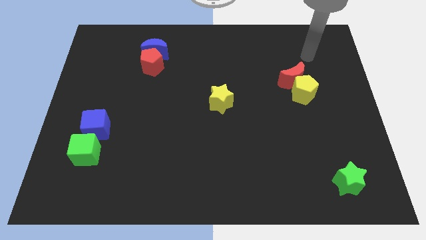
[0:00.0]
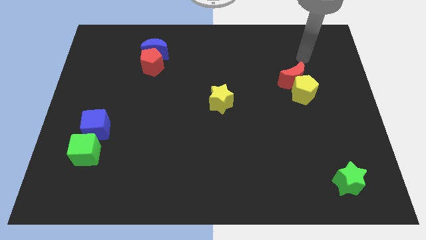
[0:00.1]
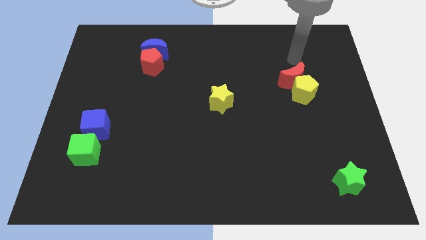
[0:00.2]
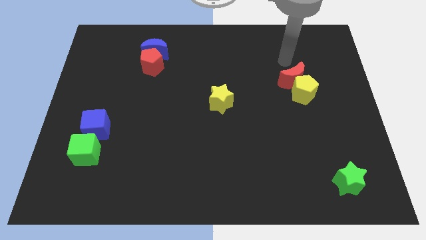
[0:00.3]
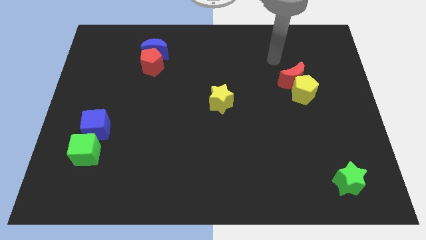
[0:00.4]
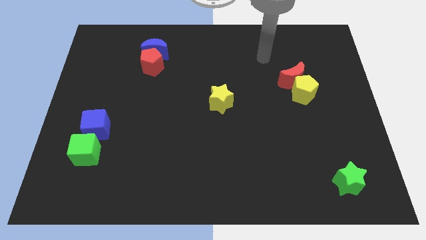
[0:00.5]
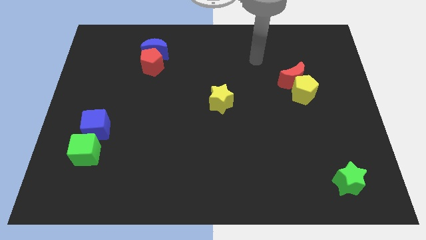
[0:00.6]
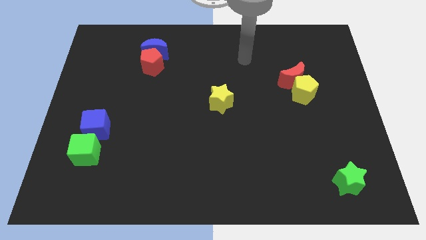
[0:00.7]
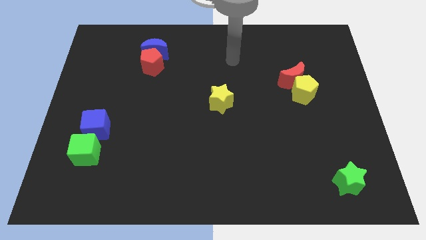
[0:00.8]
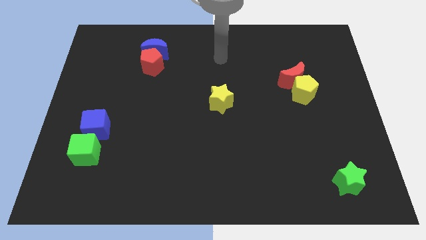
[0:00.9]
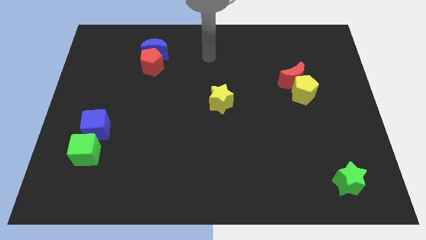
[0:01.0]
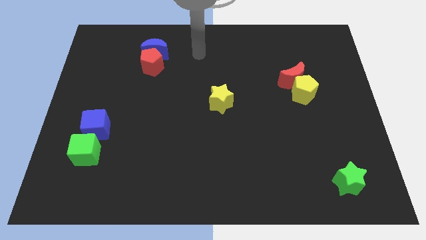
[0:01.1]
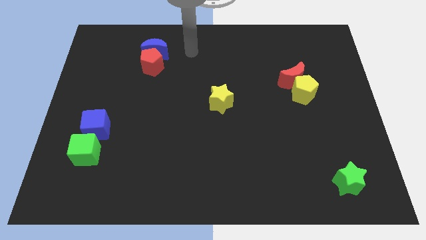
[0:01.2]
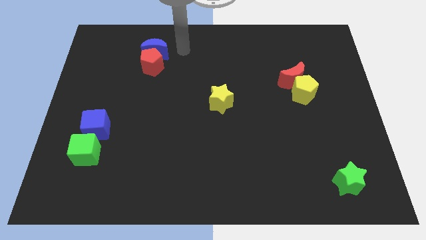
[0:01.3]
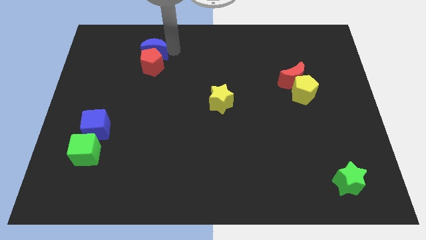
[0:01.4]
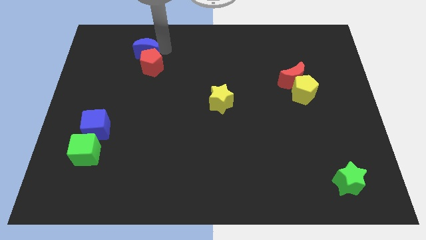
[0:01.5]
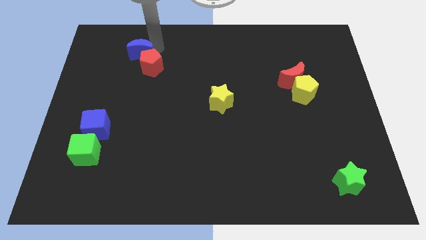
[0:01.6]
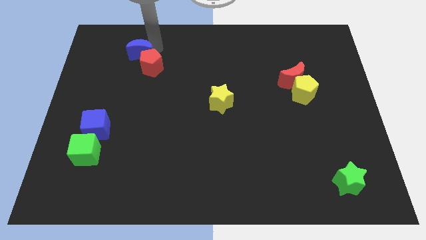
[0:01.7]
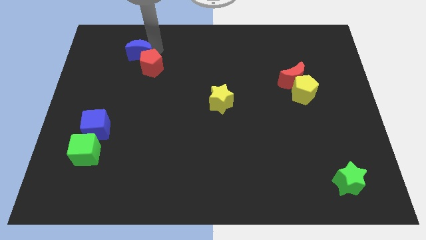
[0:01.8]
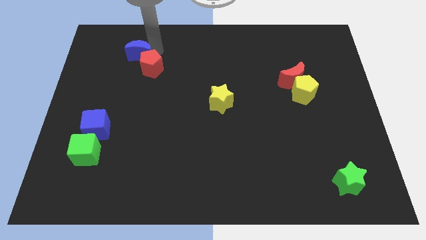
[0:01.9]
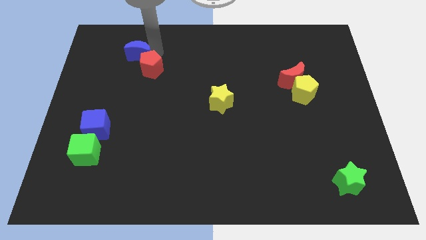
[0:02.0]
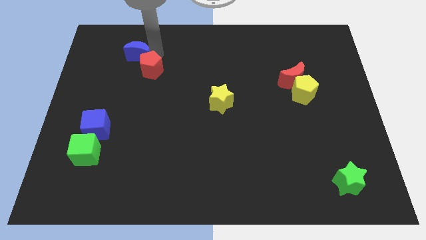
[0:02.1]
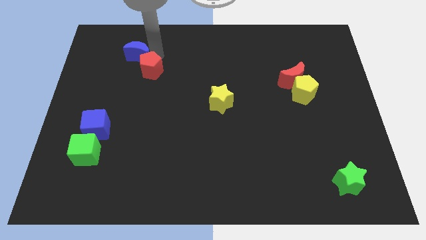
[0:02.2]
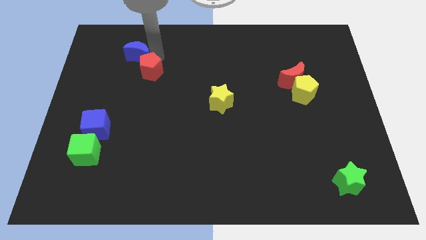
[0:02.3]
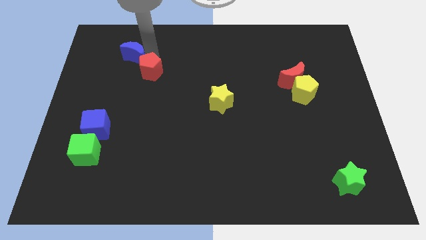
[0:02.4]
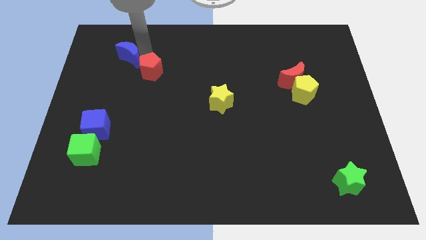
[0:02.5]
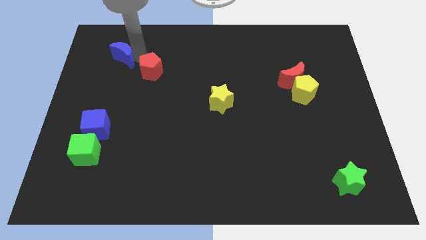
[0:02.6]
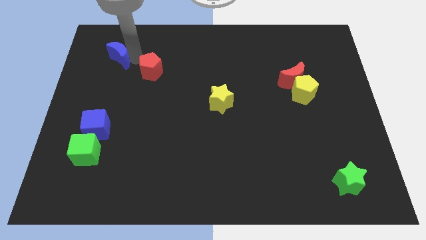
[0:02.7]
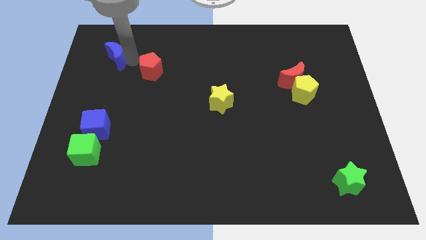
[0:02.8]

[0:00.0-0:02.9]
pull the red pentagon apart from the blue moon

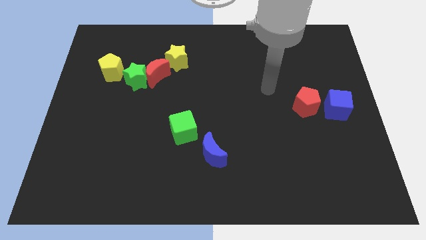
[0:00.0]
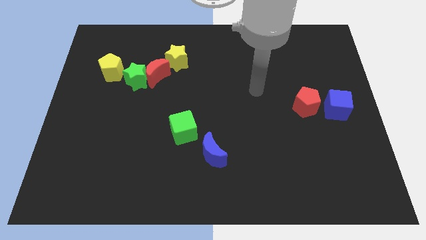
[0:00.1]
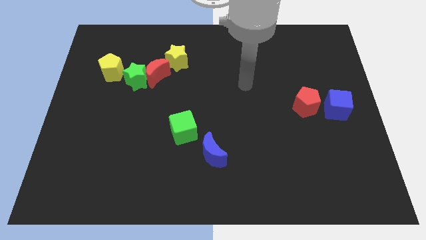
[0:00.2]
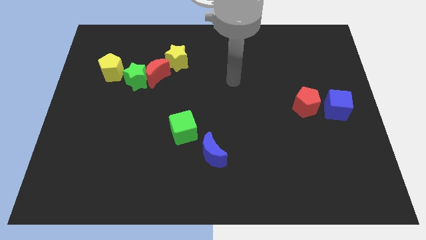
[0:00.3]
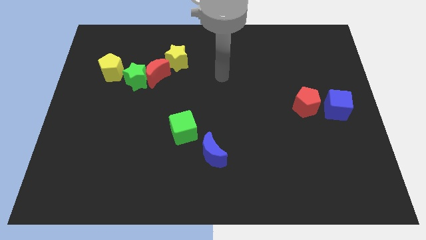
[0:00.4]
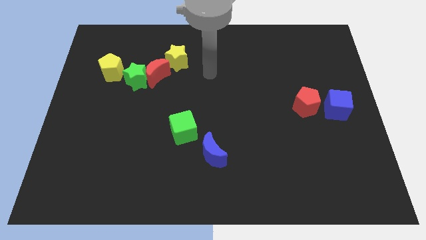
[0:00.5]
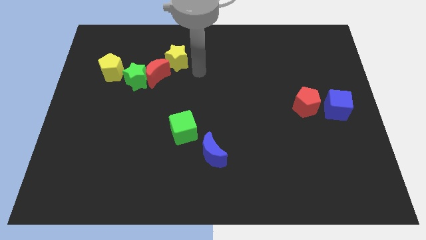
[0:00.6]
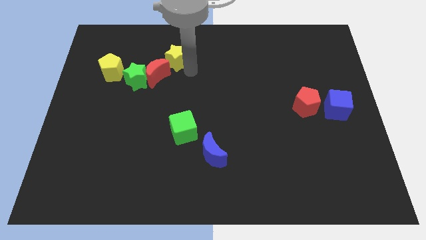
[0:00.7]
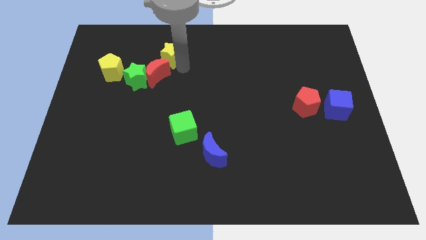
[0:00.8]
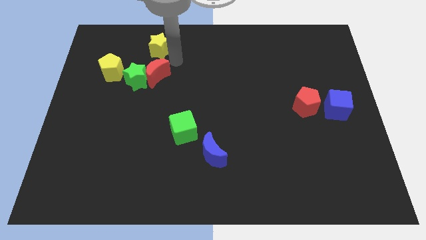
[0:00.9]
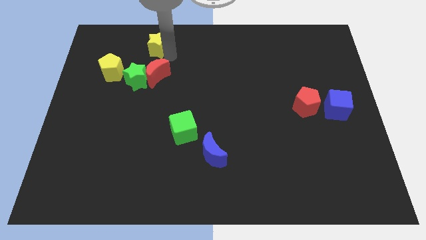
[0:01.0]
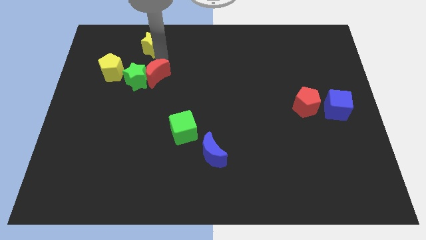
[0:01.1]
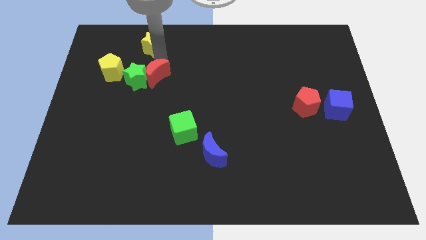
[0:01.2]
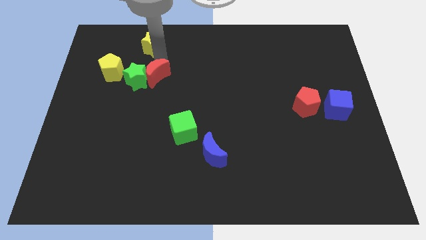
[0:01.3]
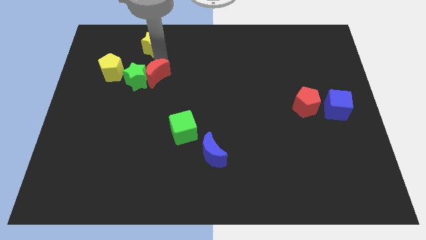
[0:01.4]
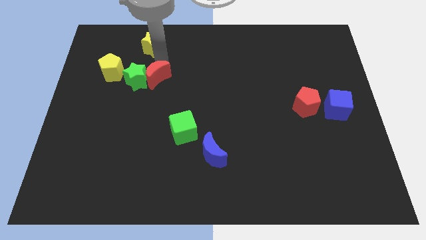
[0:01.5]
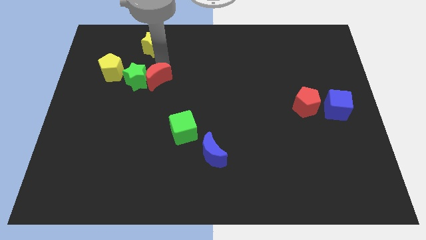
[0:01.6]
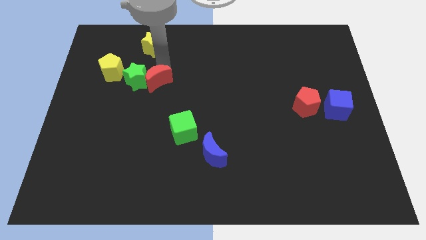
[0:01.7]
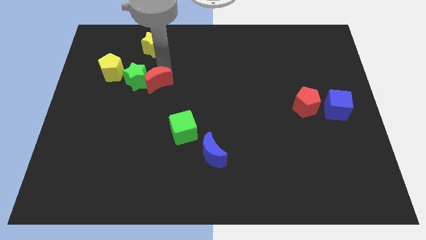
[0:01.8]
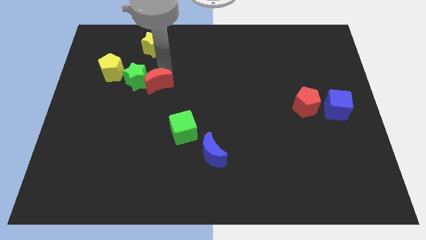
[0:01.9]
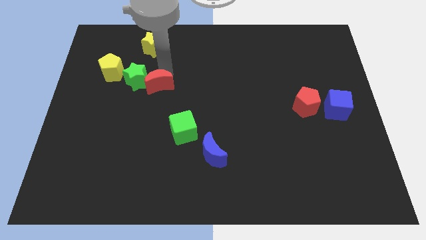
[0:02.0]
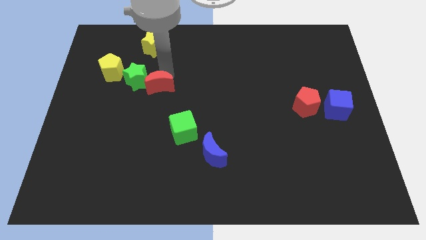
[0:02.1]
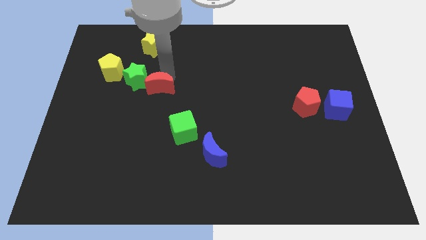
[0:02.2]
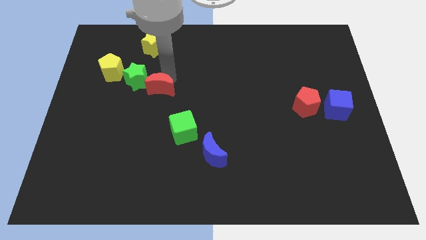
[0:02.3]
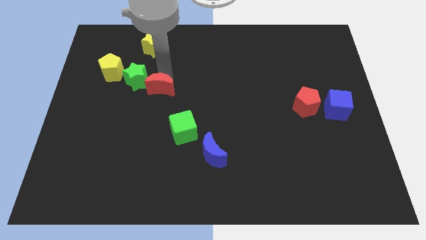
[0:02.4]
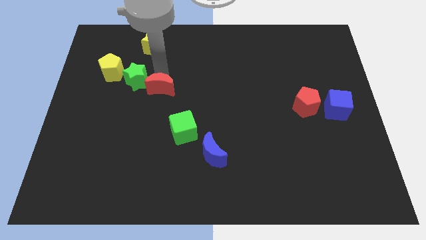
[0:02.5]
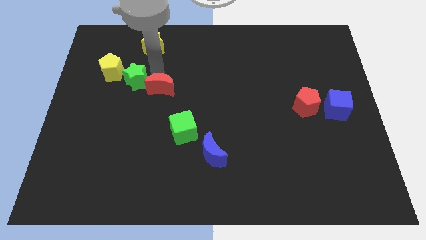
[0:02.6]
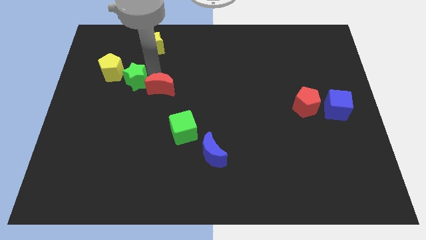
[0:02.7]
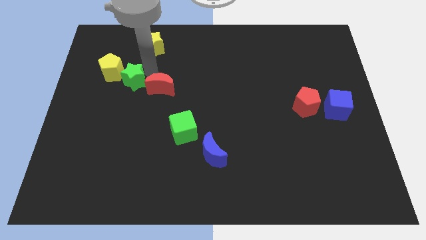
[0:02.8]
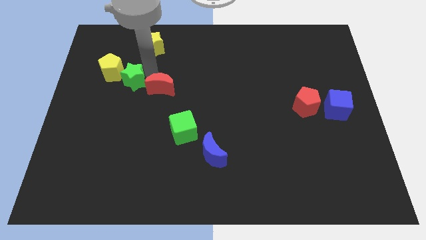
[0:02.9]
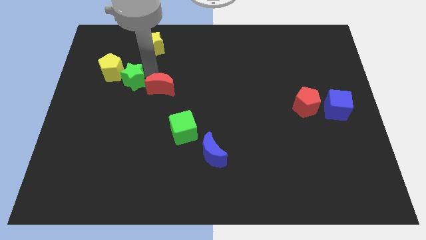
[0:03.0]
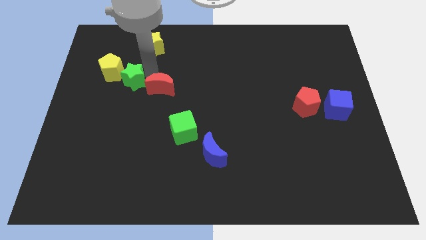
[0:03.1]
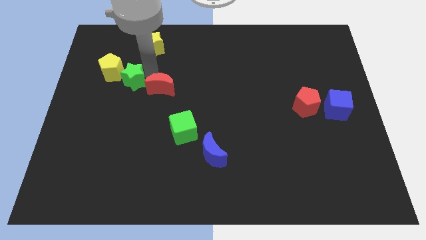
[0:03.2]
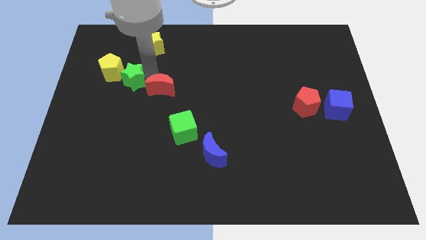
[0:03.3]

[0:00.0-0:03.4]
separate the red moon from the green star and yellow star

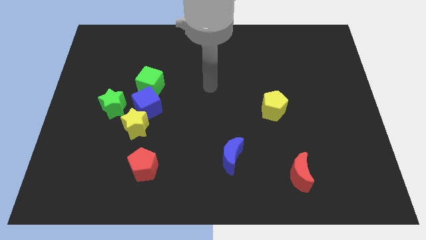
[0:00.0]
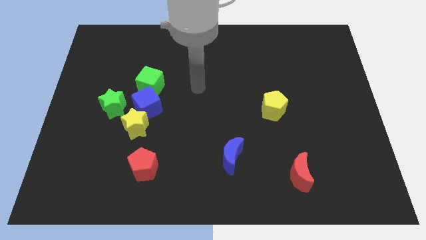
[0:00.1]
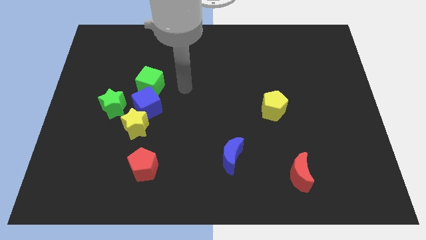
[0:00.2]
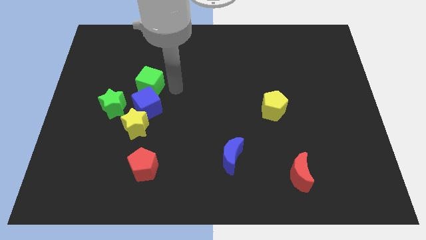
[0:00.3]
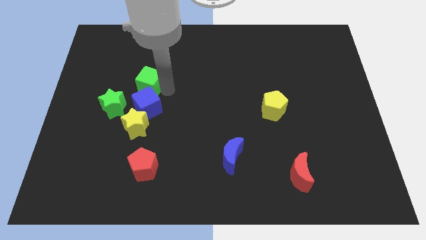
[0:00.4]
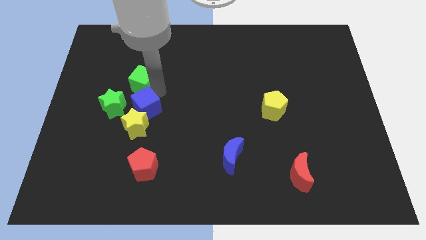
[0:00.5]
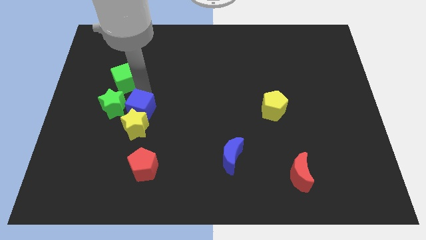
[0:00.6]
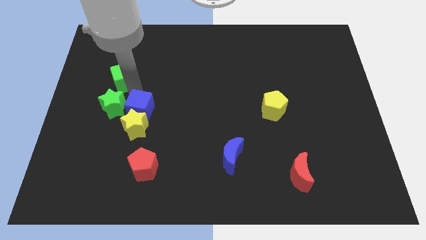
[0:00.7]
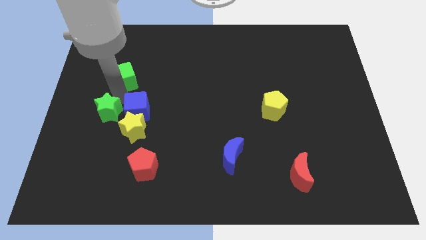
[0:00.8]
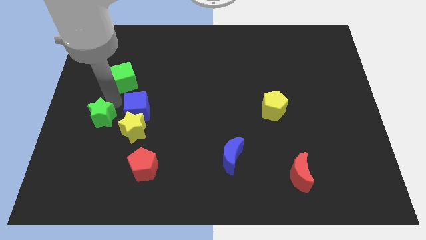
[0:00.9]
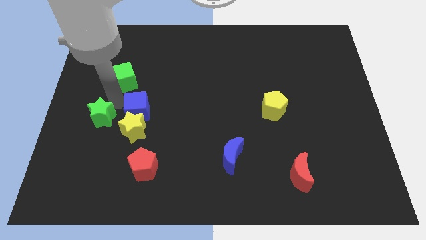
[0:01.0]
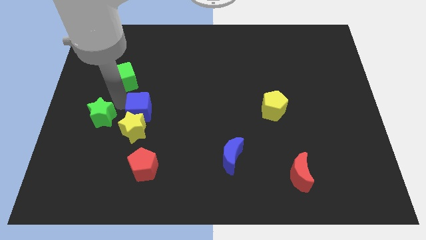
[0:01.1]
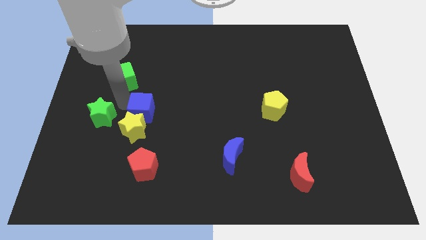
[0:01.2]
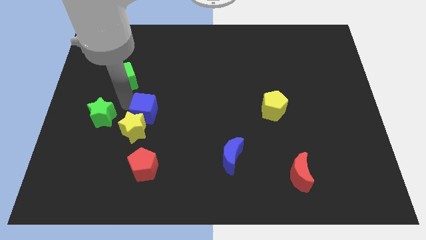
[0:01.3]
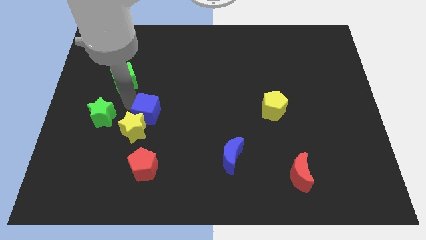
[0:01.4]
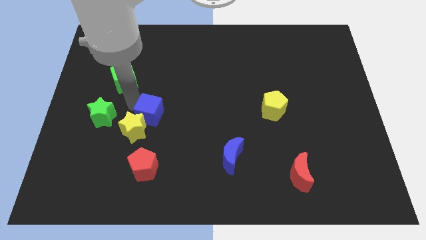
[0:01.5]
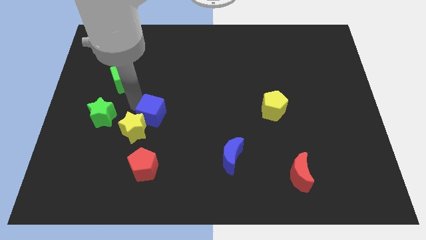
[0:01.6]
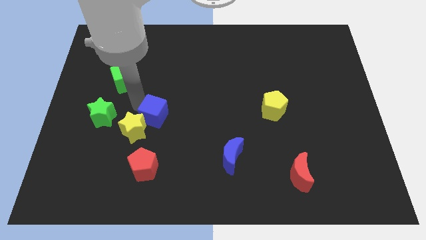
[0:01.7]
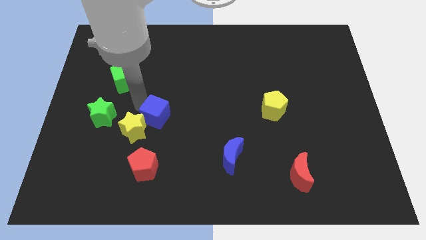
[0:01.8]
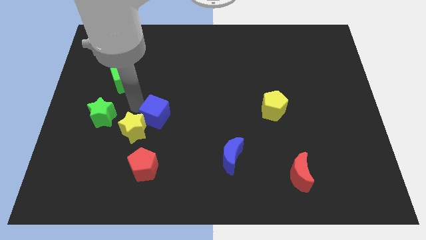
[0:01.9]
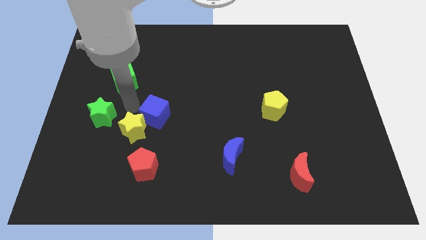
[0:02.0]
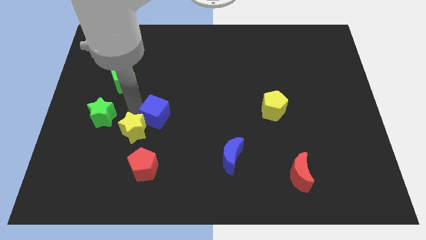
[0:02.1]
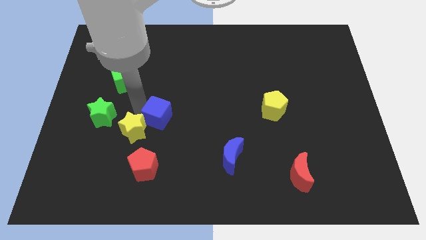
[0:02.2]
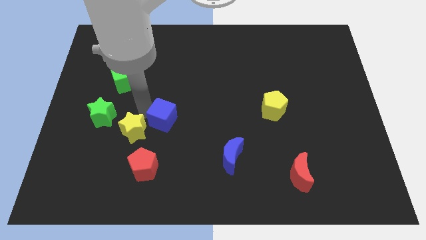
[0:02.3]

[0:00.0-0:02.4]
move the blue cube away from the clump

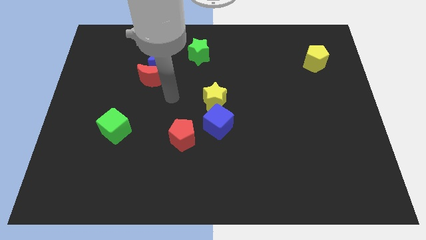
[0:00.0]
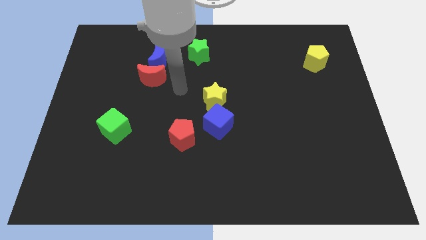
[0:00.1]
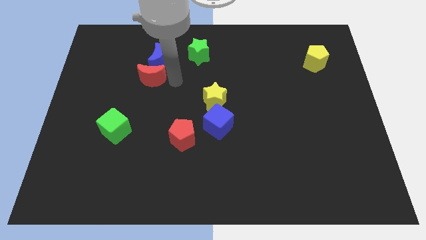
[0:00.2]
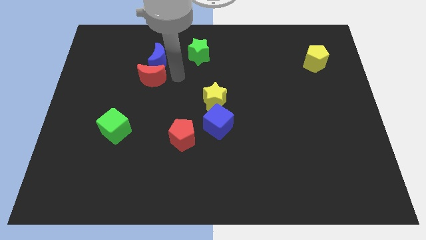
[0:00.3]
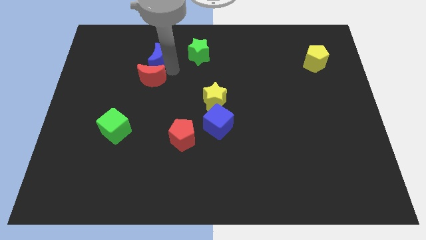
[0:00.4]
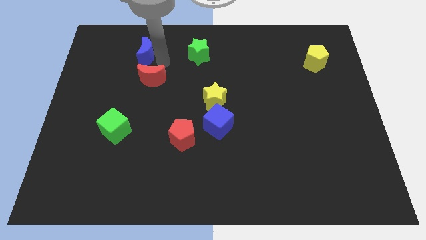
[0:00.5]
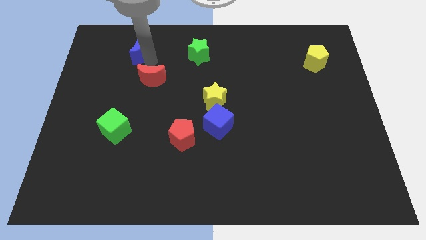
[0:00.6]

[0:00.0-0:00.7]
pull the red moon apart from the blue moon
